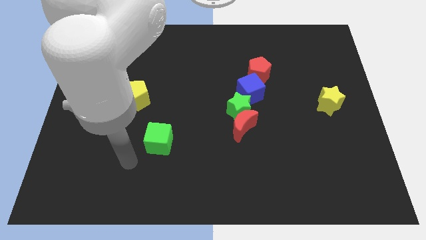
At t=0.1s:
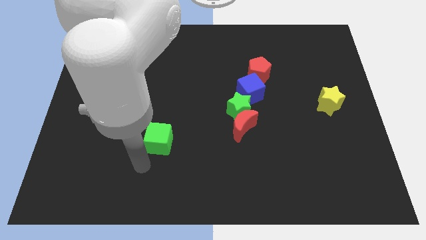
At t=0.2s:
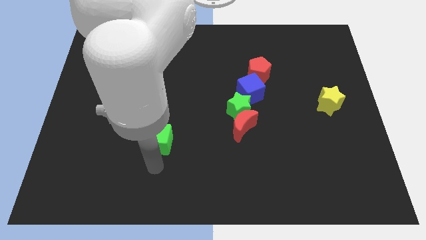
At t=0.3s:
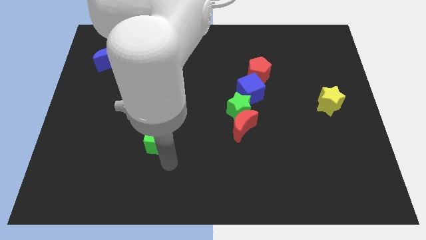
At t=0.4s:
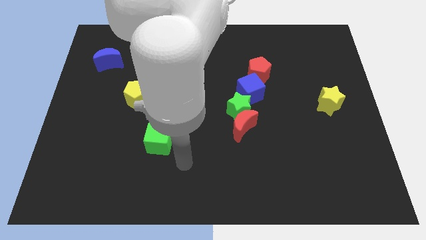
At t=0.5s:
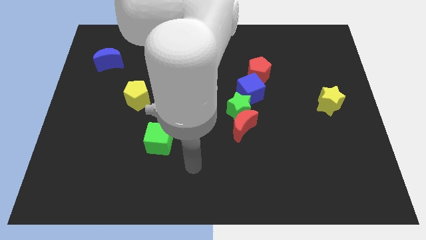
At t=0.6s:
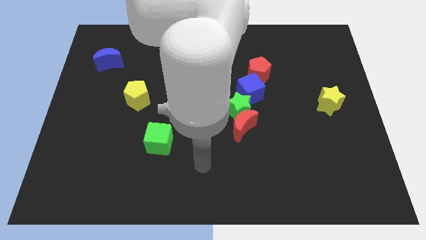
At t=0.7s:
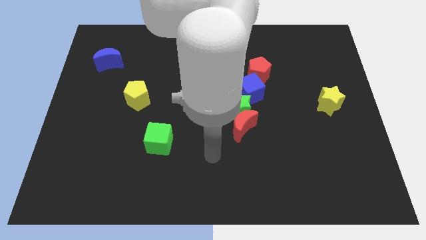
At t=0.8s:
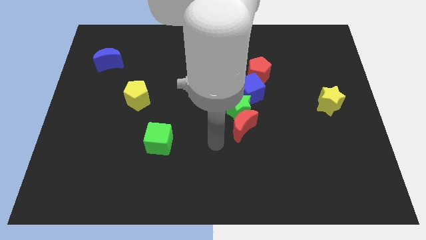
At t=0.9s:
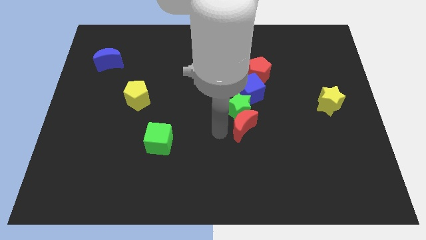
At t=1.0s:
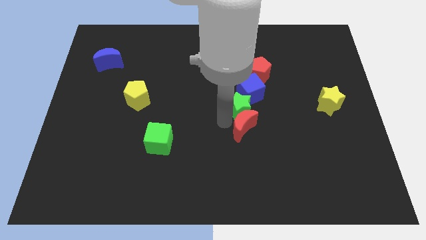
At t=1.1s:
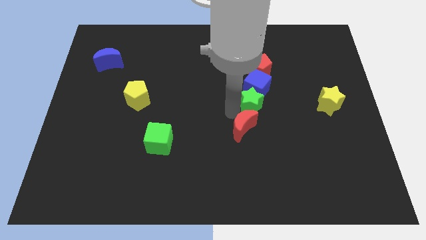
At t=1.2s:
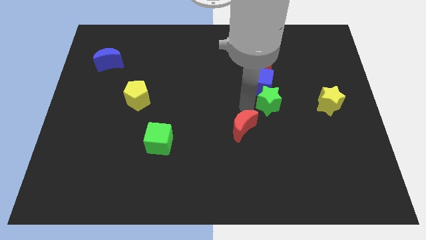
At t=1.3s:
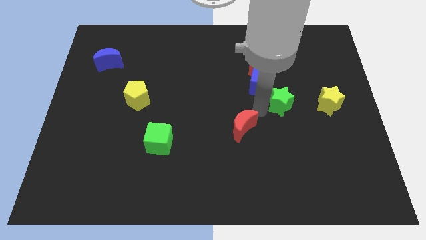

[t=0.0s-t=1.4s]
separate the red moon from the green star

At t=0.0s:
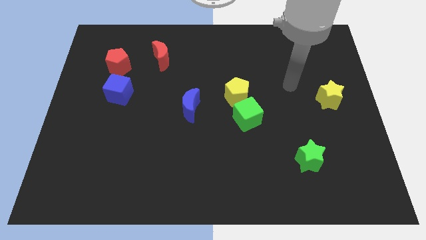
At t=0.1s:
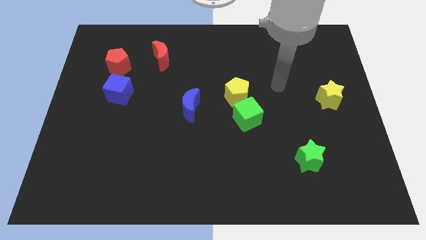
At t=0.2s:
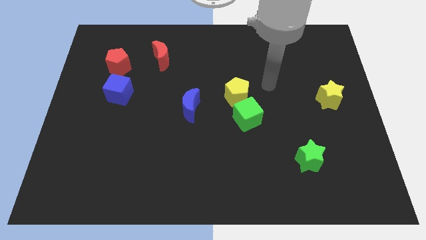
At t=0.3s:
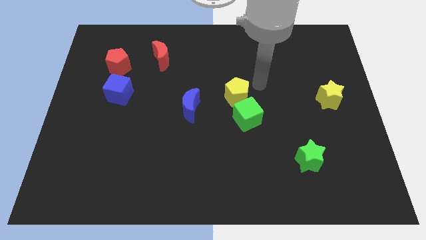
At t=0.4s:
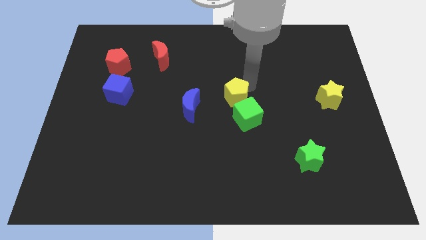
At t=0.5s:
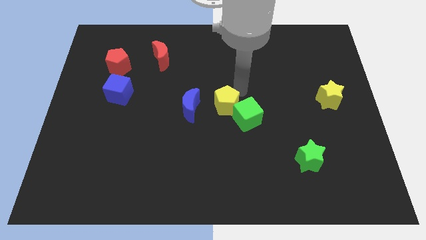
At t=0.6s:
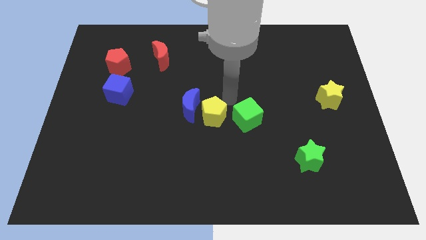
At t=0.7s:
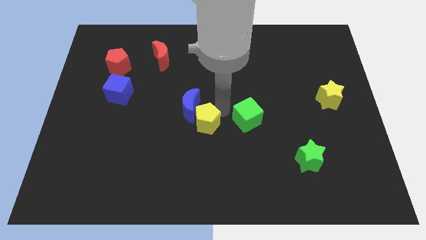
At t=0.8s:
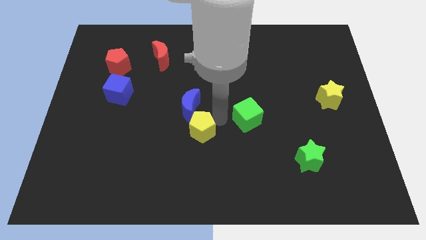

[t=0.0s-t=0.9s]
separate the green cube from the yellow pentagon

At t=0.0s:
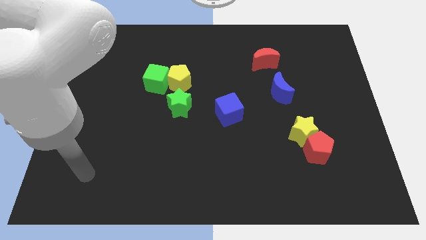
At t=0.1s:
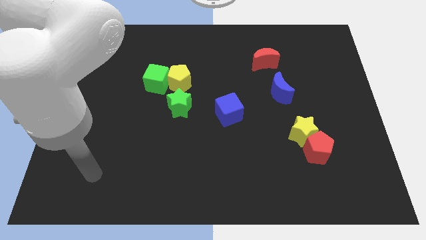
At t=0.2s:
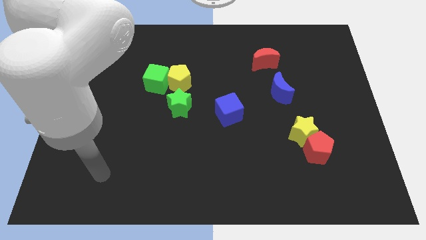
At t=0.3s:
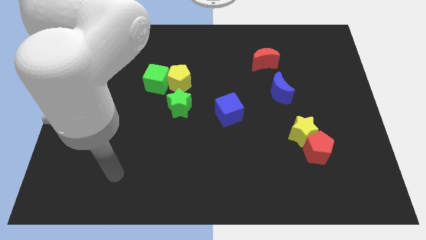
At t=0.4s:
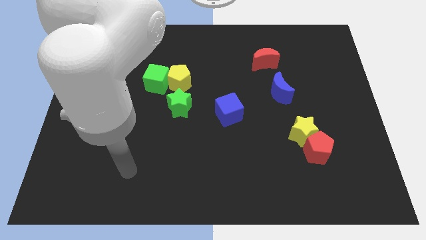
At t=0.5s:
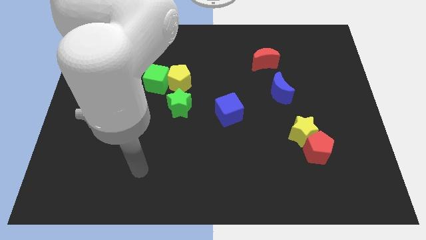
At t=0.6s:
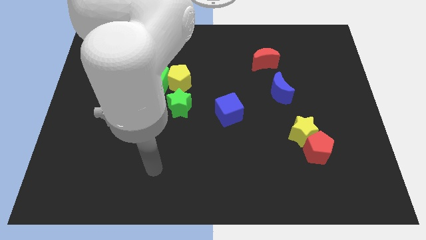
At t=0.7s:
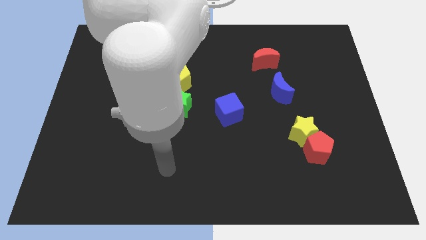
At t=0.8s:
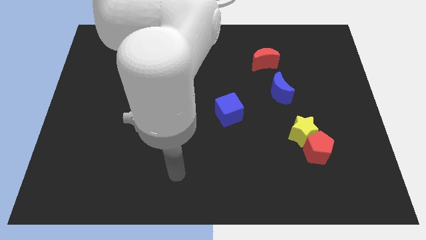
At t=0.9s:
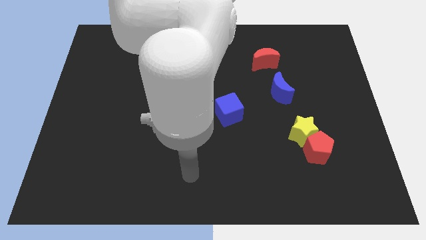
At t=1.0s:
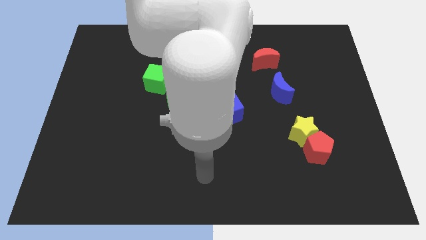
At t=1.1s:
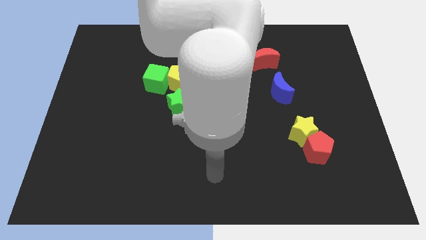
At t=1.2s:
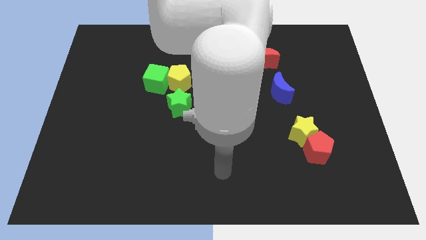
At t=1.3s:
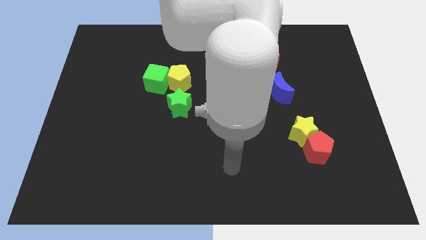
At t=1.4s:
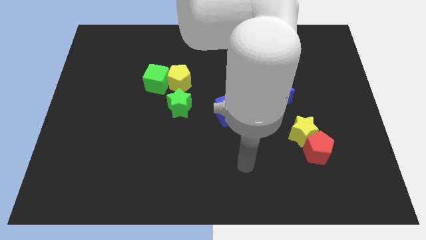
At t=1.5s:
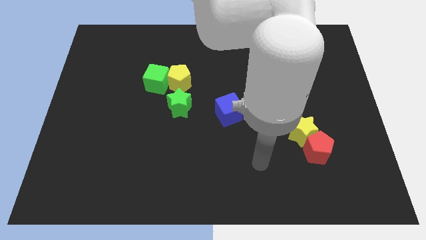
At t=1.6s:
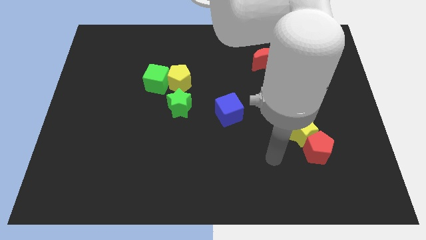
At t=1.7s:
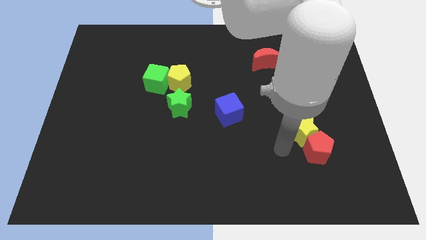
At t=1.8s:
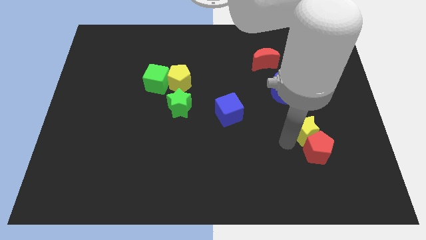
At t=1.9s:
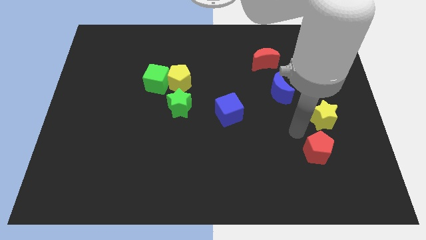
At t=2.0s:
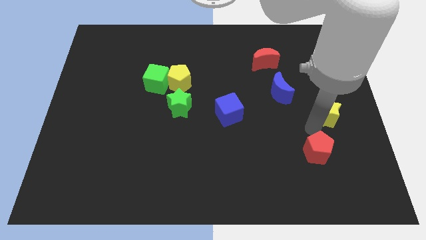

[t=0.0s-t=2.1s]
pull the red pentagon apart from the yellow star

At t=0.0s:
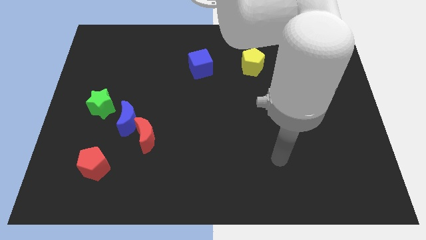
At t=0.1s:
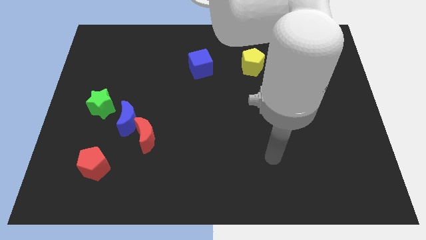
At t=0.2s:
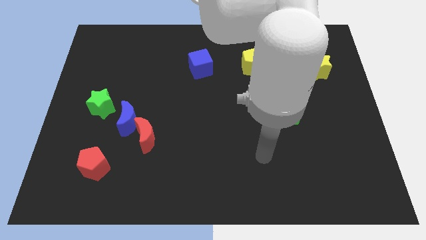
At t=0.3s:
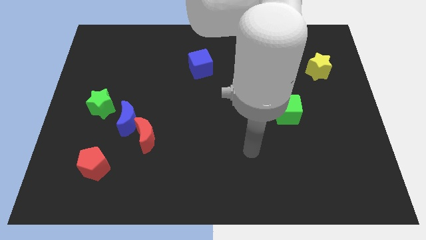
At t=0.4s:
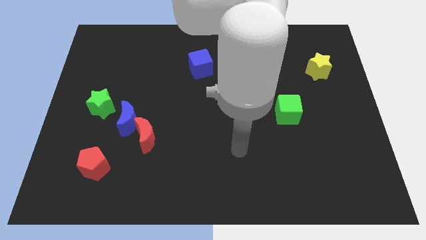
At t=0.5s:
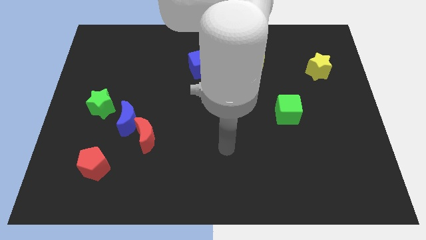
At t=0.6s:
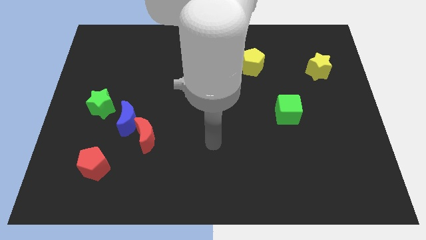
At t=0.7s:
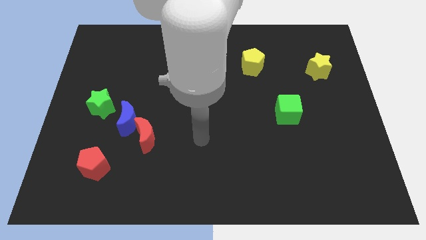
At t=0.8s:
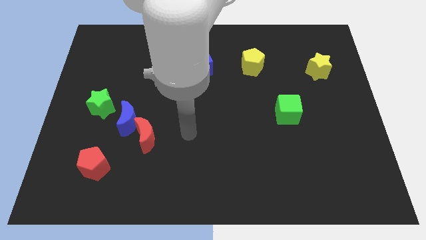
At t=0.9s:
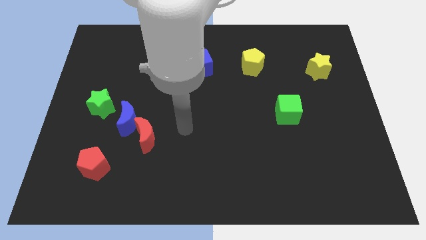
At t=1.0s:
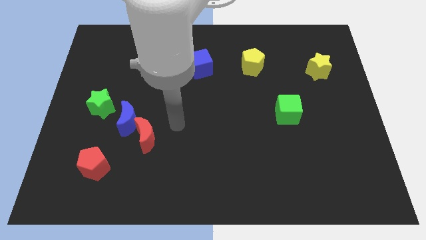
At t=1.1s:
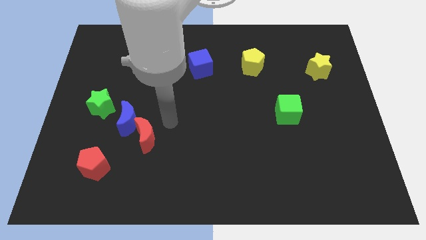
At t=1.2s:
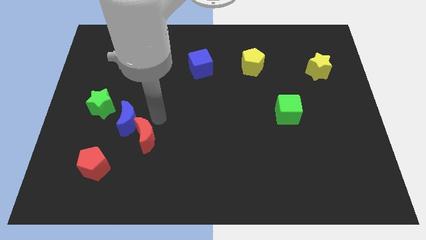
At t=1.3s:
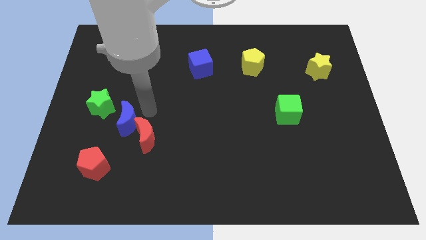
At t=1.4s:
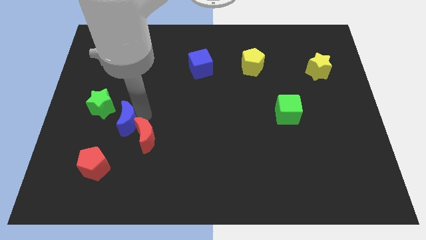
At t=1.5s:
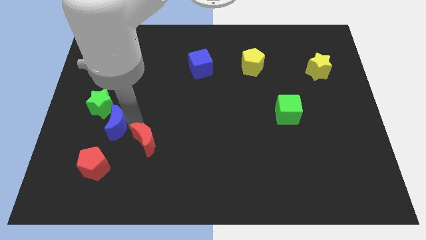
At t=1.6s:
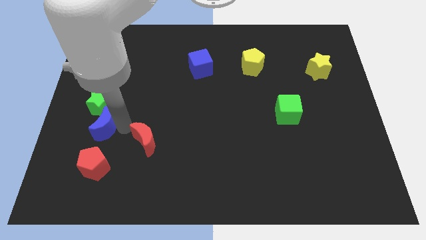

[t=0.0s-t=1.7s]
separate the red moon from the blue moon

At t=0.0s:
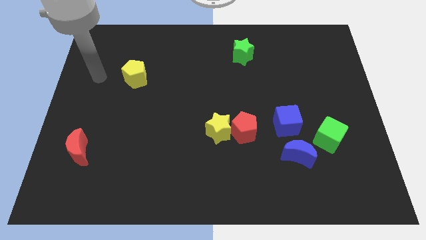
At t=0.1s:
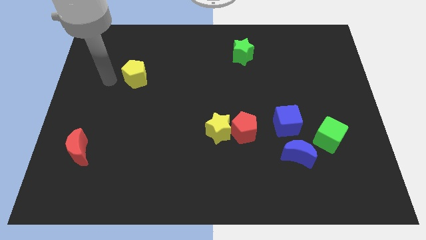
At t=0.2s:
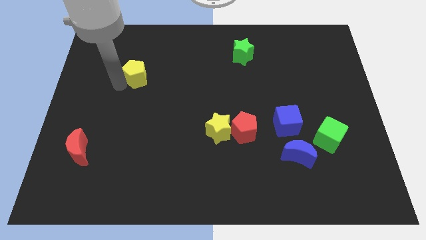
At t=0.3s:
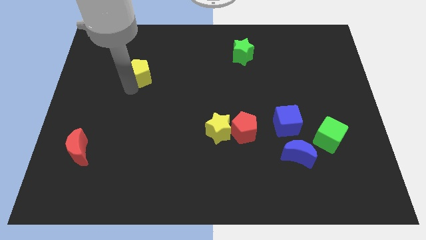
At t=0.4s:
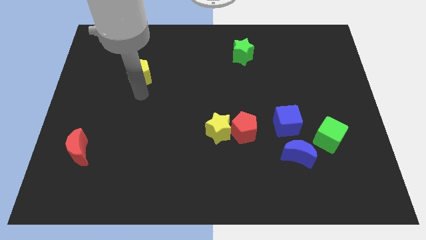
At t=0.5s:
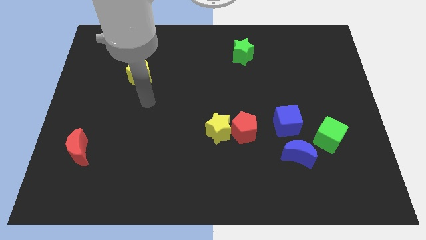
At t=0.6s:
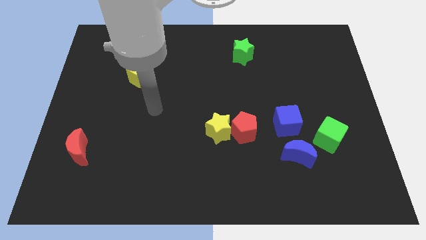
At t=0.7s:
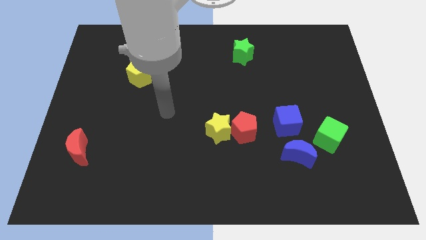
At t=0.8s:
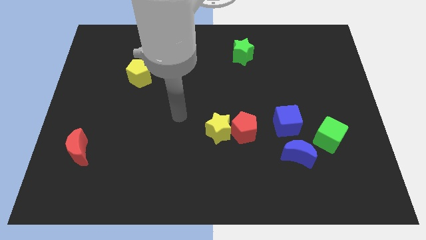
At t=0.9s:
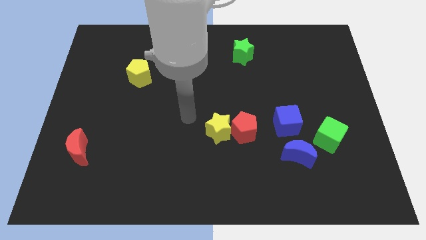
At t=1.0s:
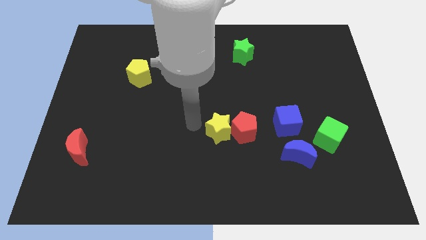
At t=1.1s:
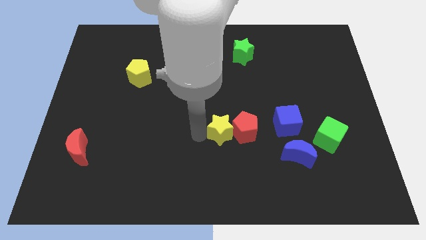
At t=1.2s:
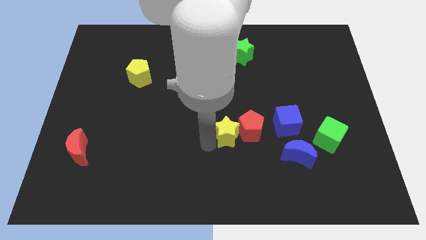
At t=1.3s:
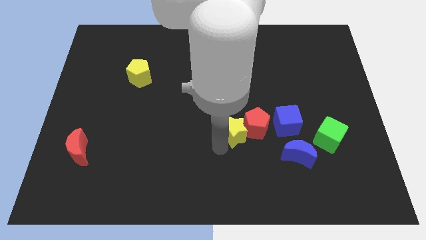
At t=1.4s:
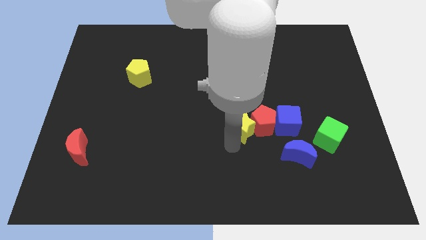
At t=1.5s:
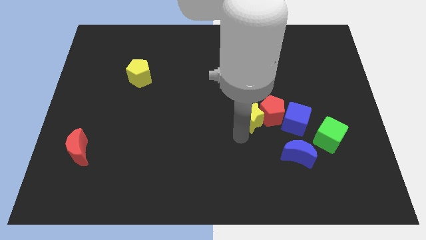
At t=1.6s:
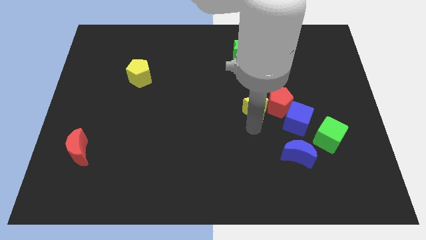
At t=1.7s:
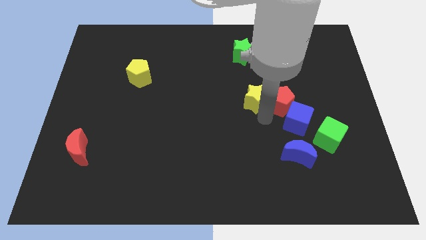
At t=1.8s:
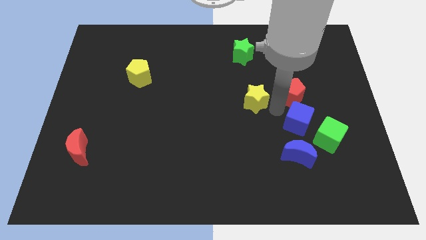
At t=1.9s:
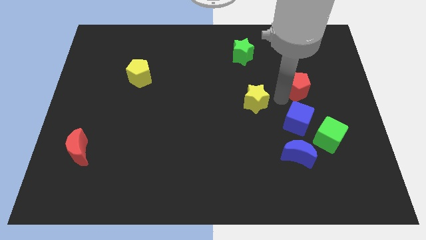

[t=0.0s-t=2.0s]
separate the yellow star from the red pentagon

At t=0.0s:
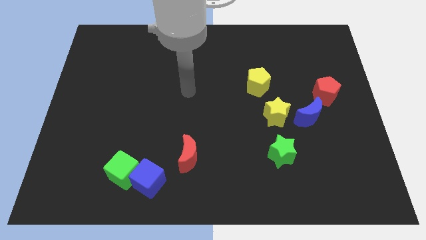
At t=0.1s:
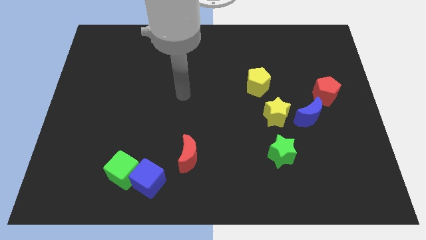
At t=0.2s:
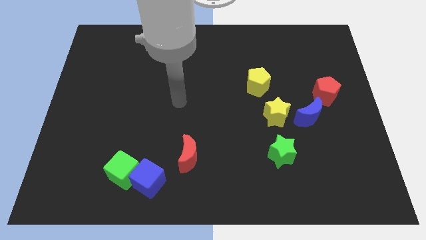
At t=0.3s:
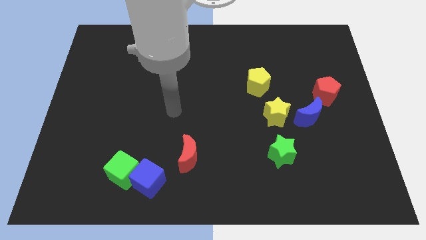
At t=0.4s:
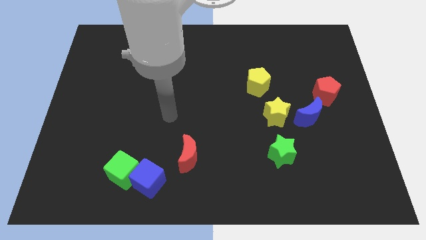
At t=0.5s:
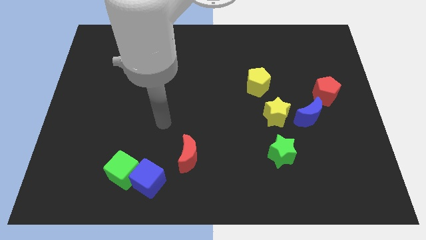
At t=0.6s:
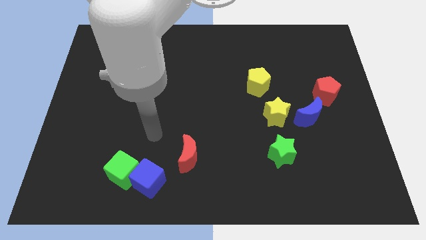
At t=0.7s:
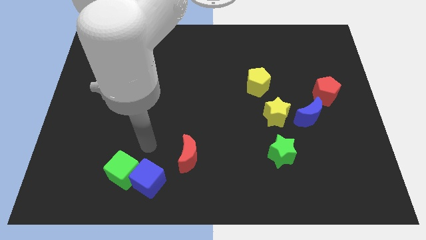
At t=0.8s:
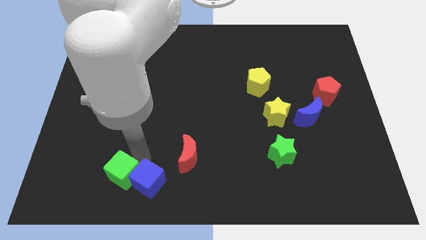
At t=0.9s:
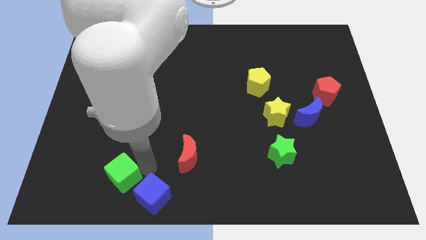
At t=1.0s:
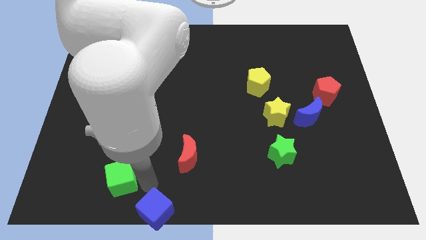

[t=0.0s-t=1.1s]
move the green cube away from the blue cube
